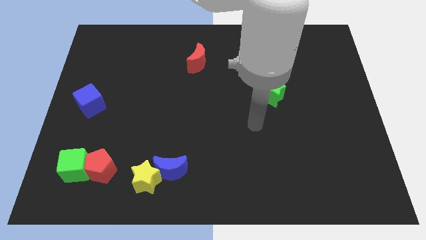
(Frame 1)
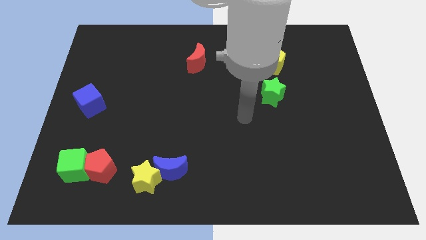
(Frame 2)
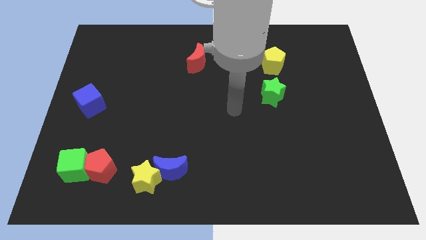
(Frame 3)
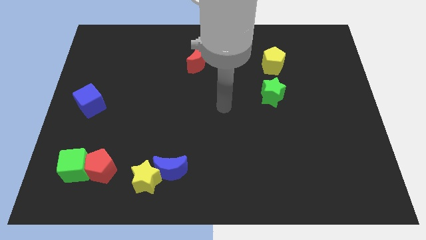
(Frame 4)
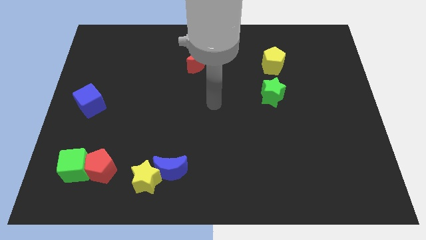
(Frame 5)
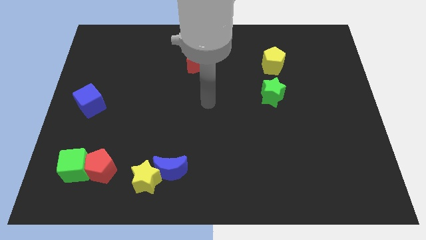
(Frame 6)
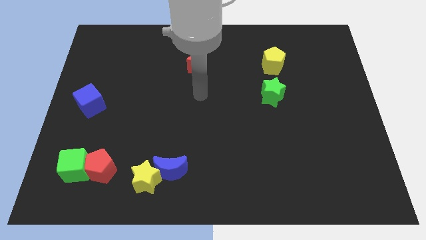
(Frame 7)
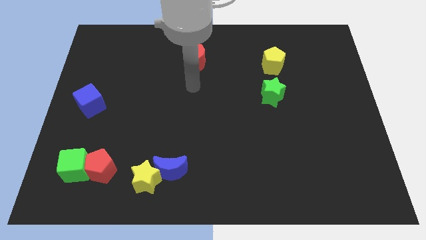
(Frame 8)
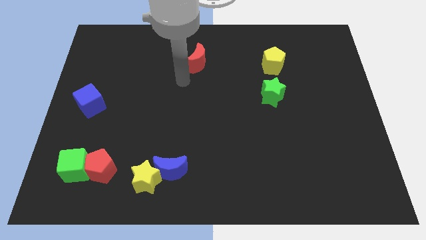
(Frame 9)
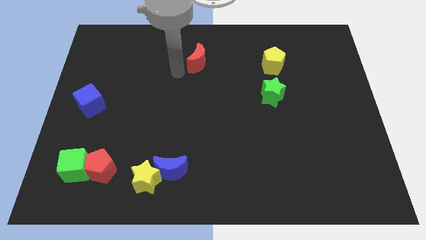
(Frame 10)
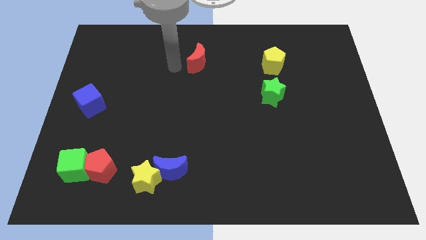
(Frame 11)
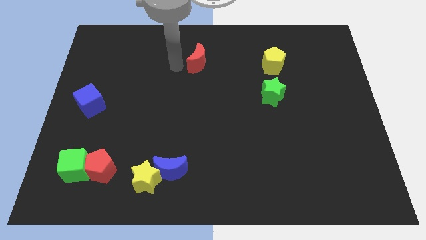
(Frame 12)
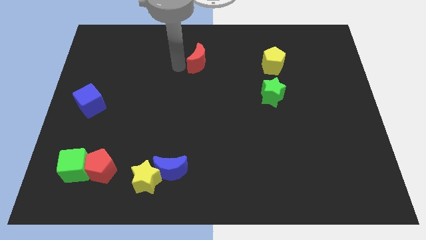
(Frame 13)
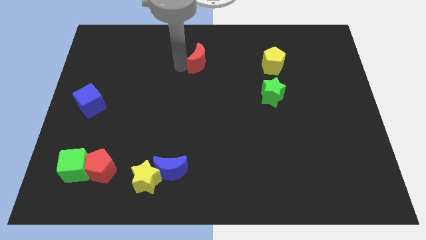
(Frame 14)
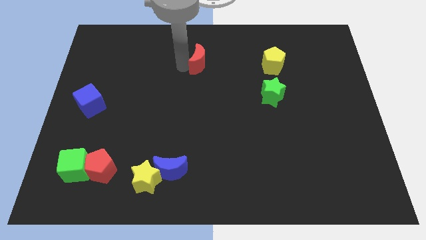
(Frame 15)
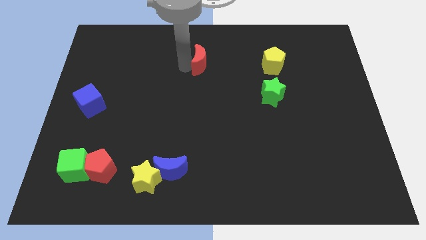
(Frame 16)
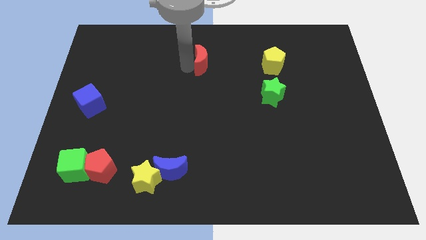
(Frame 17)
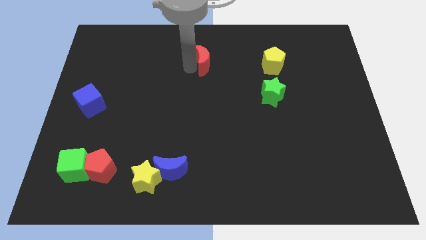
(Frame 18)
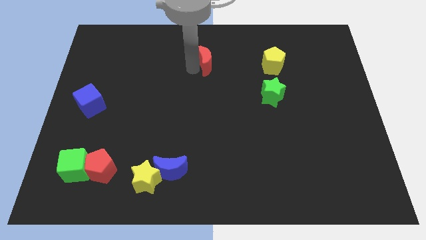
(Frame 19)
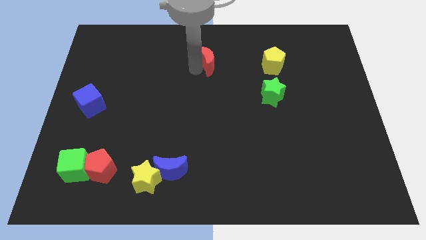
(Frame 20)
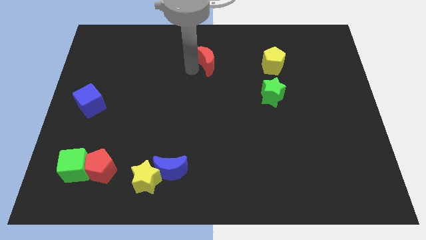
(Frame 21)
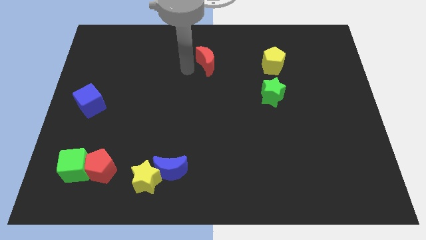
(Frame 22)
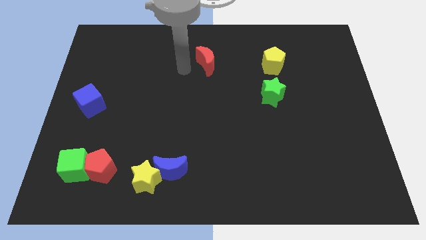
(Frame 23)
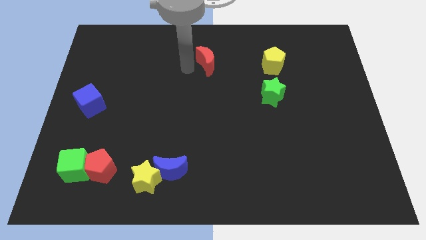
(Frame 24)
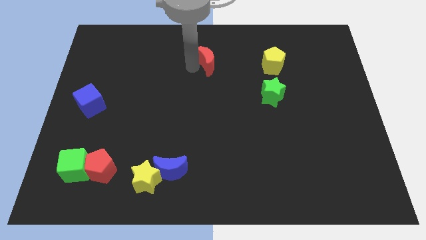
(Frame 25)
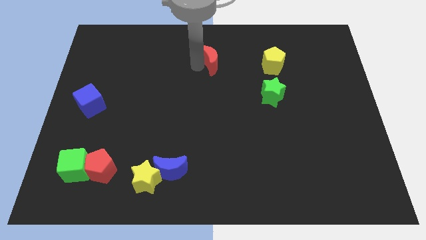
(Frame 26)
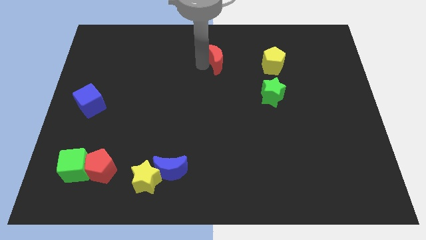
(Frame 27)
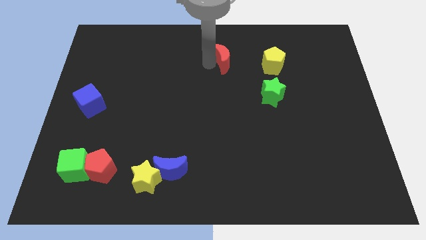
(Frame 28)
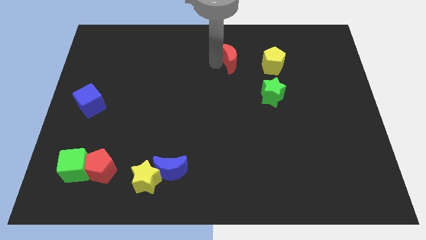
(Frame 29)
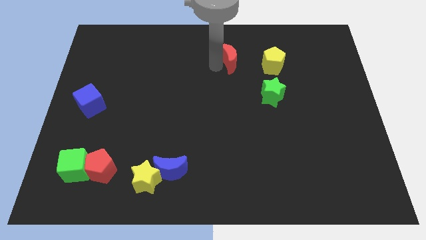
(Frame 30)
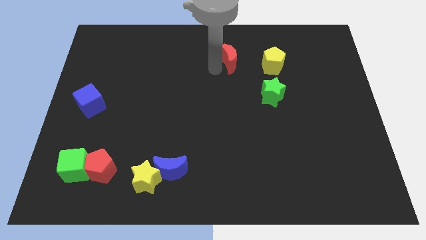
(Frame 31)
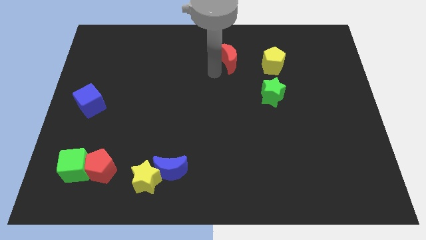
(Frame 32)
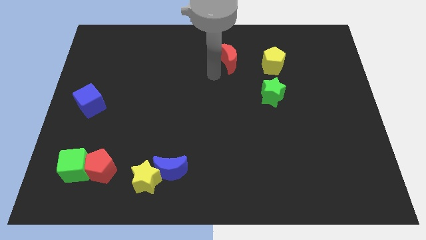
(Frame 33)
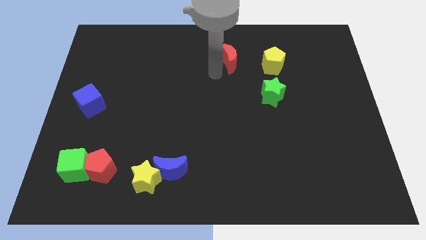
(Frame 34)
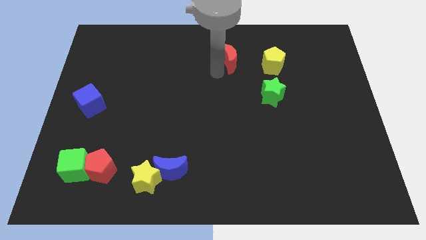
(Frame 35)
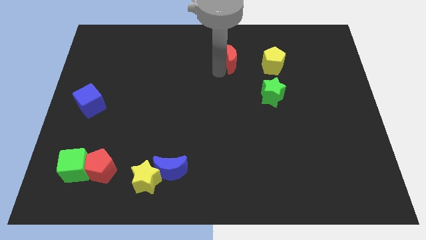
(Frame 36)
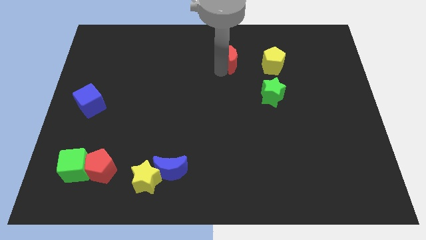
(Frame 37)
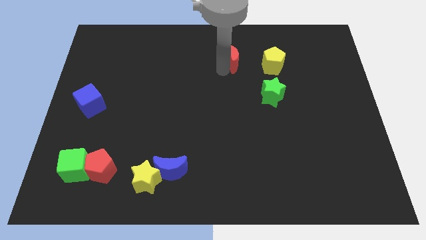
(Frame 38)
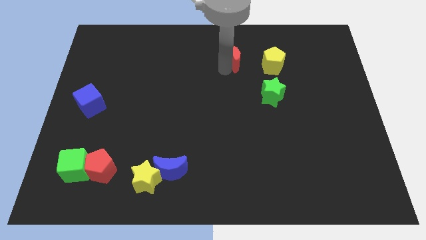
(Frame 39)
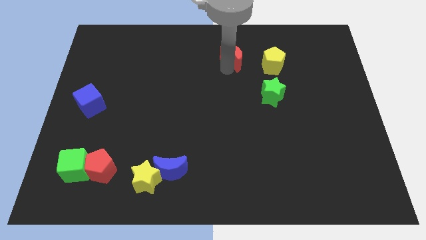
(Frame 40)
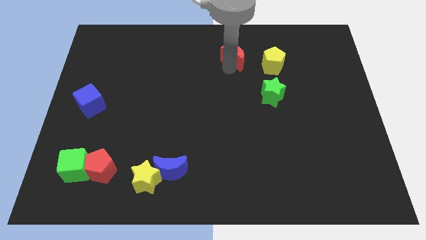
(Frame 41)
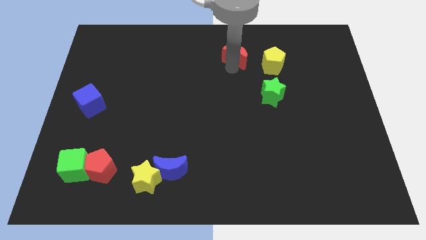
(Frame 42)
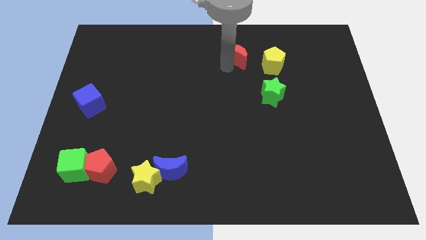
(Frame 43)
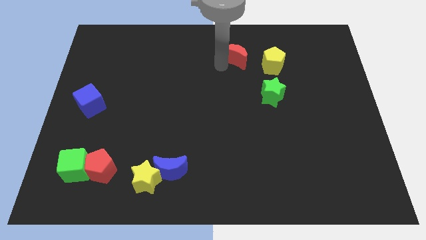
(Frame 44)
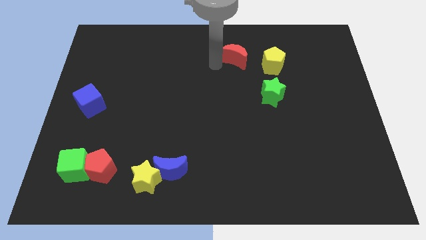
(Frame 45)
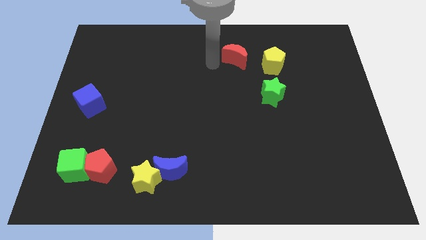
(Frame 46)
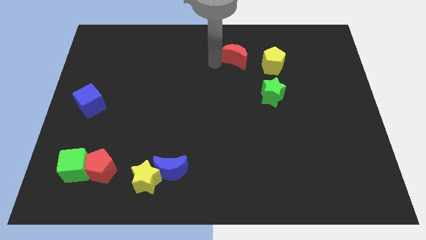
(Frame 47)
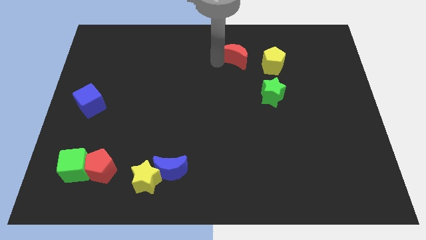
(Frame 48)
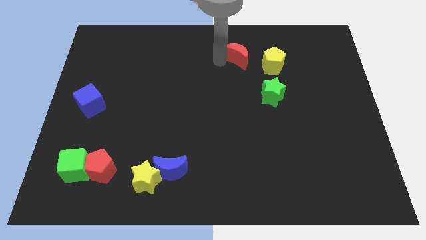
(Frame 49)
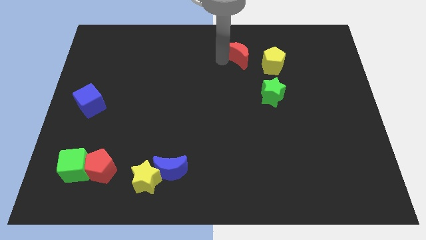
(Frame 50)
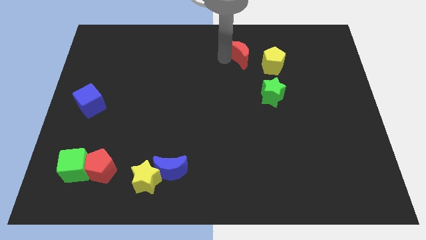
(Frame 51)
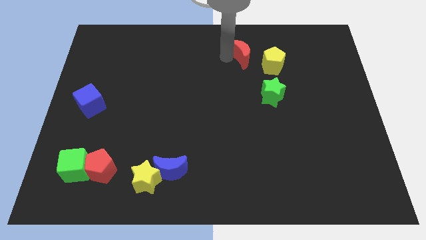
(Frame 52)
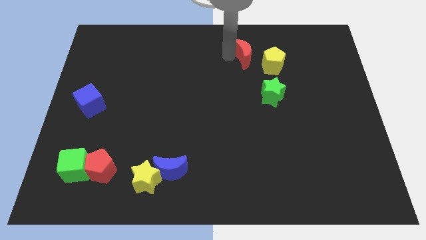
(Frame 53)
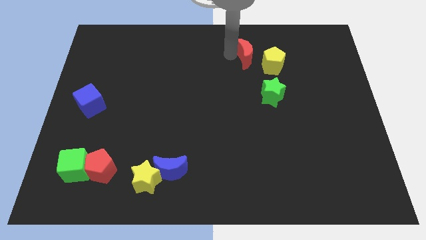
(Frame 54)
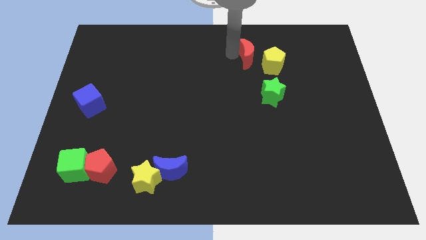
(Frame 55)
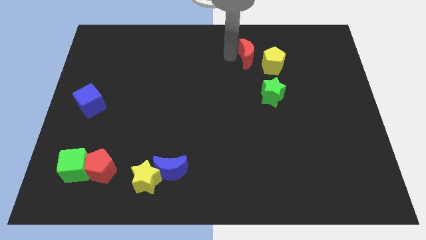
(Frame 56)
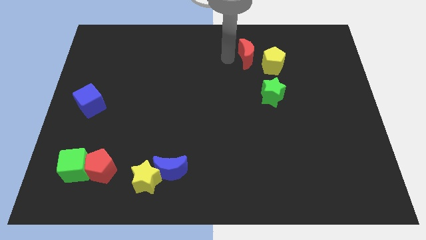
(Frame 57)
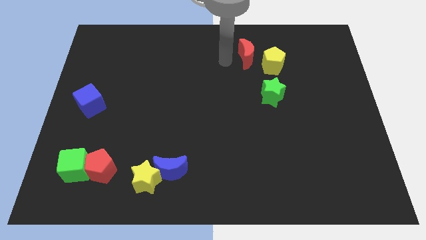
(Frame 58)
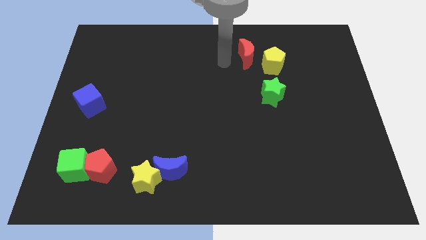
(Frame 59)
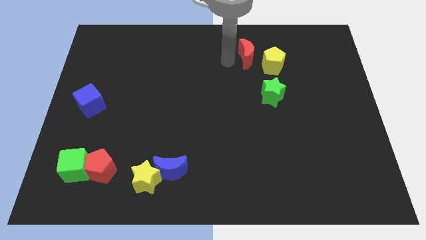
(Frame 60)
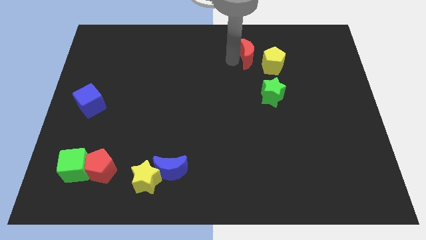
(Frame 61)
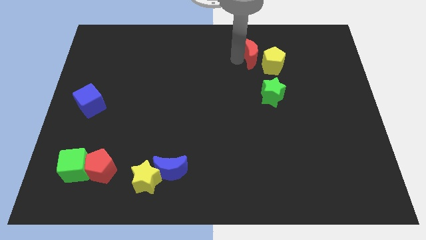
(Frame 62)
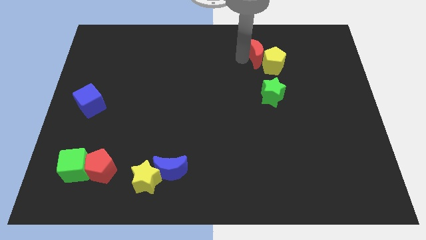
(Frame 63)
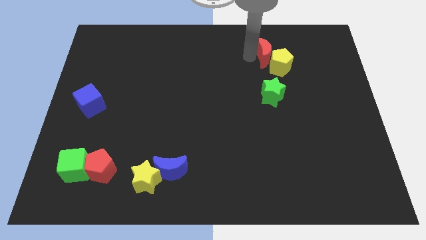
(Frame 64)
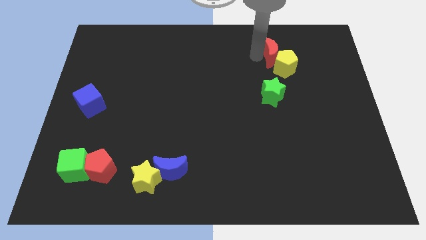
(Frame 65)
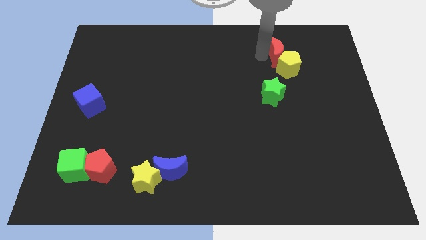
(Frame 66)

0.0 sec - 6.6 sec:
move the red moon right

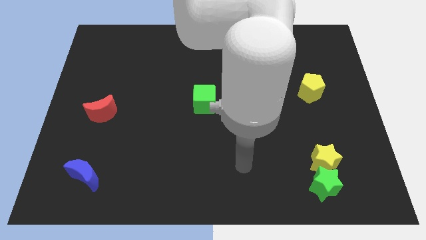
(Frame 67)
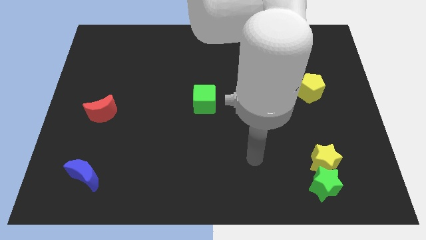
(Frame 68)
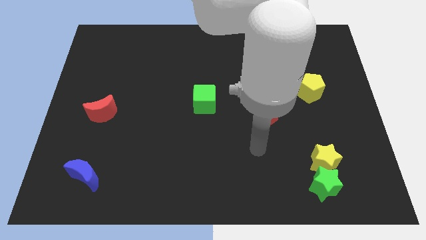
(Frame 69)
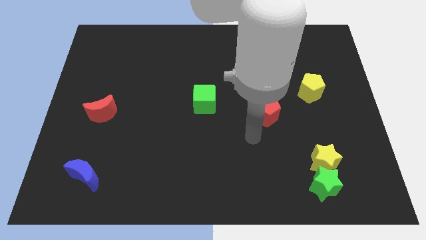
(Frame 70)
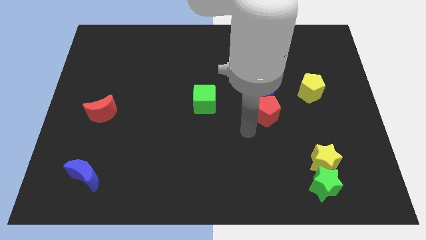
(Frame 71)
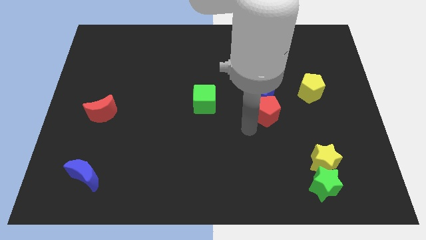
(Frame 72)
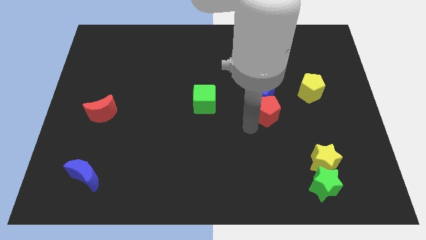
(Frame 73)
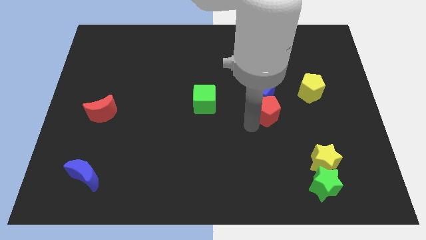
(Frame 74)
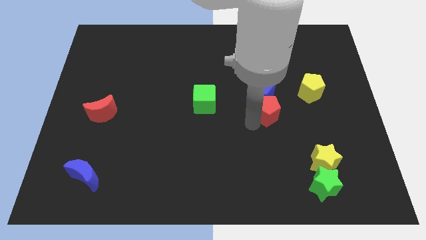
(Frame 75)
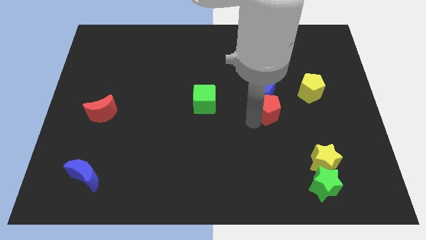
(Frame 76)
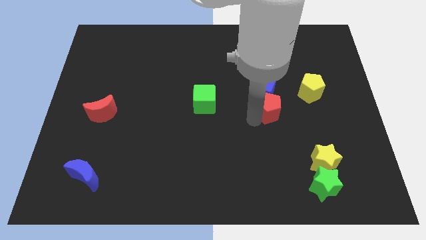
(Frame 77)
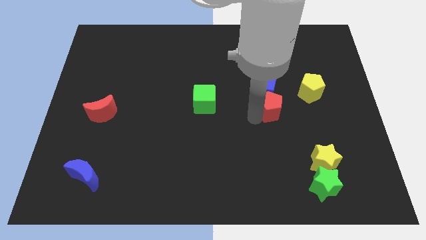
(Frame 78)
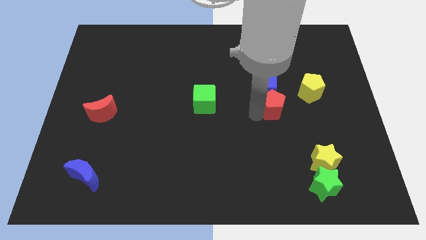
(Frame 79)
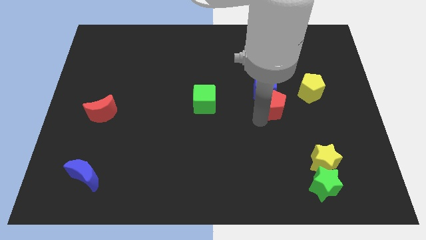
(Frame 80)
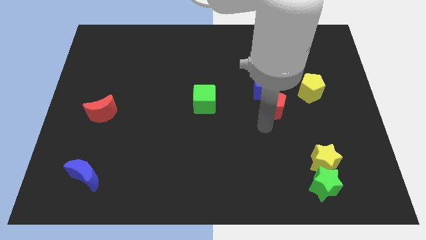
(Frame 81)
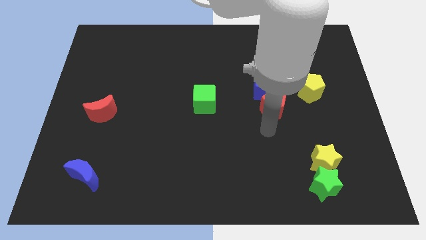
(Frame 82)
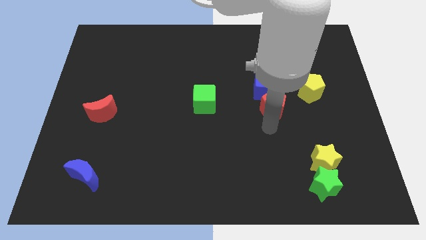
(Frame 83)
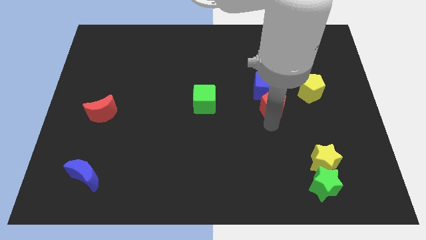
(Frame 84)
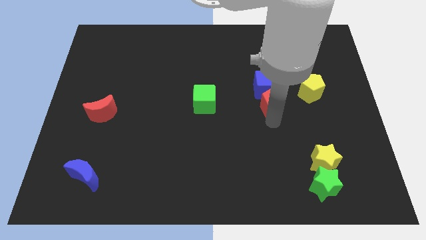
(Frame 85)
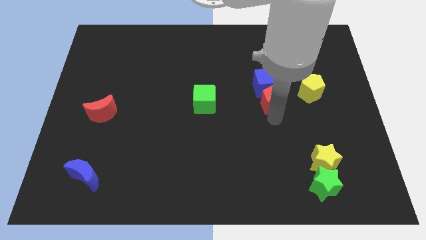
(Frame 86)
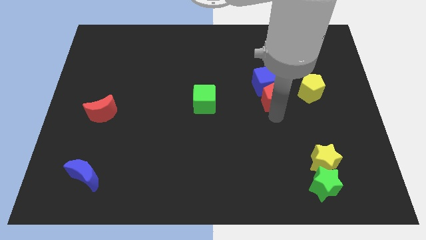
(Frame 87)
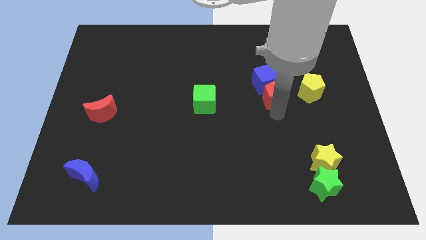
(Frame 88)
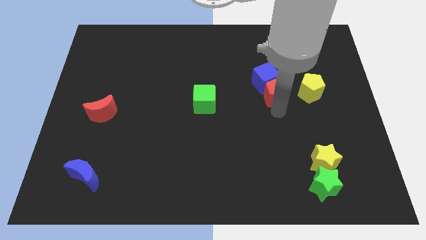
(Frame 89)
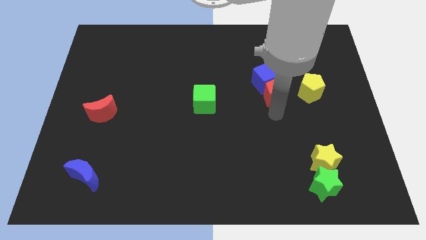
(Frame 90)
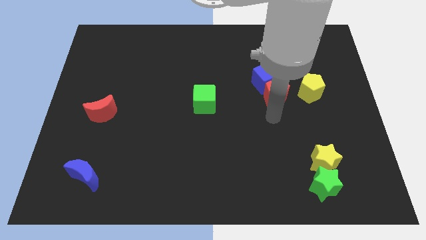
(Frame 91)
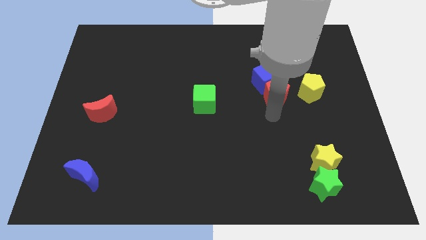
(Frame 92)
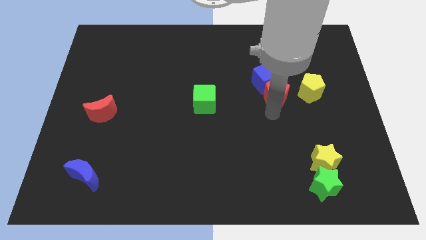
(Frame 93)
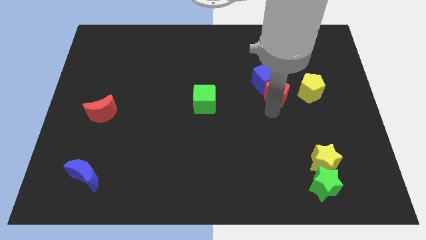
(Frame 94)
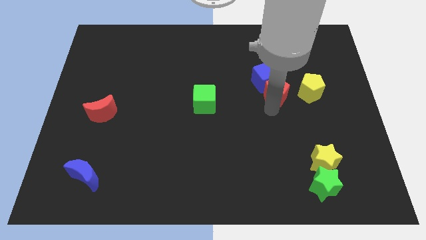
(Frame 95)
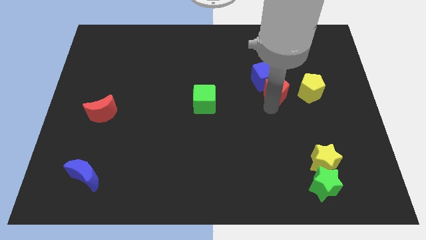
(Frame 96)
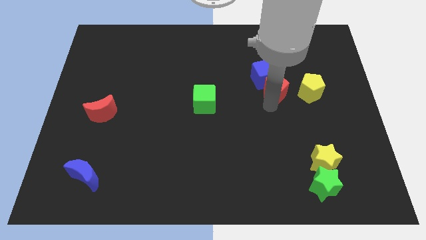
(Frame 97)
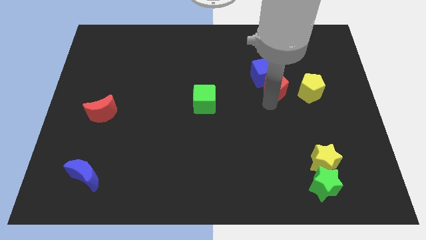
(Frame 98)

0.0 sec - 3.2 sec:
move the red pentagon up a bit
